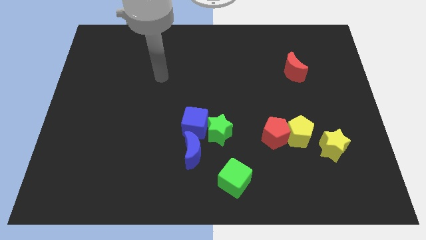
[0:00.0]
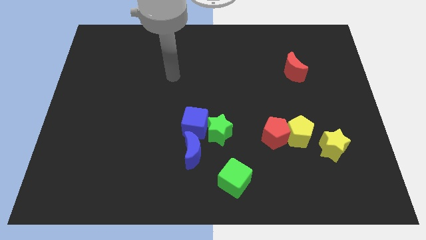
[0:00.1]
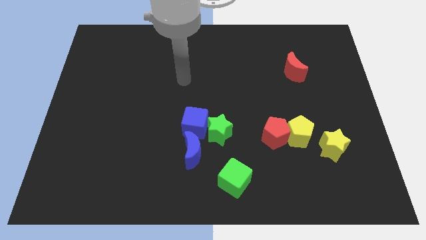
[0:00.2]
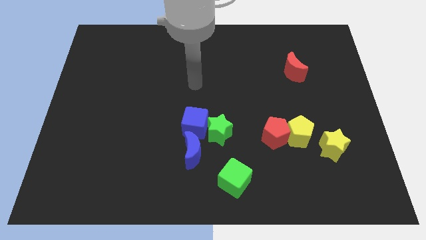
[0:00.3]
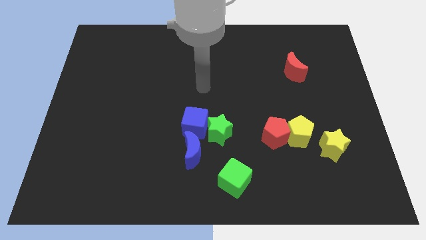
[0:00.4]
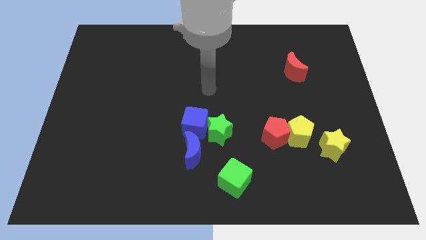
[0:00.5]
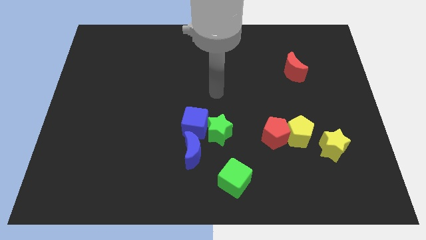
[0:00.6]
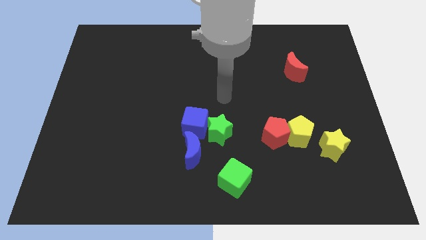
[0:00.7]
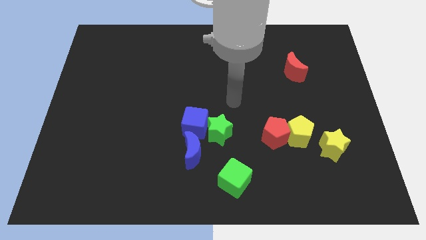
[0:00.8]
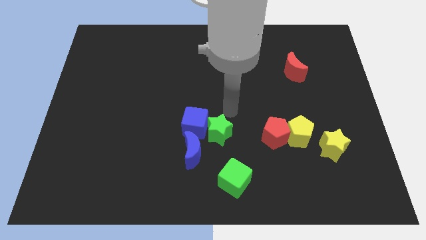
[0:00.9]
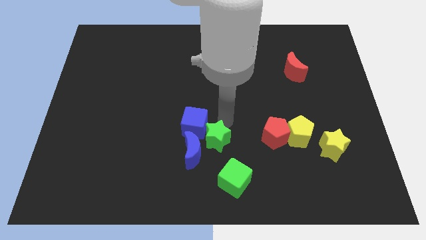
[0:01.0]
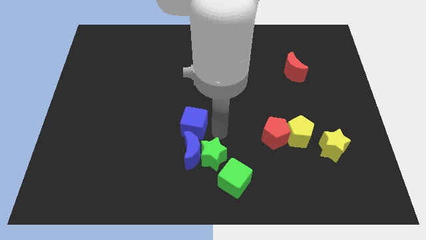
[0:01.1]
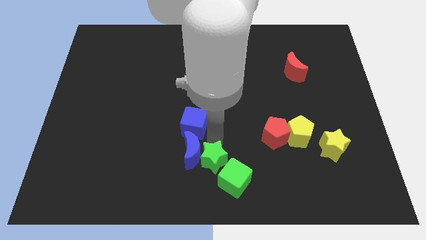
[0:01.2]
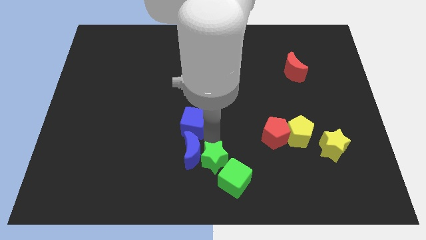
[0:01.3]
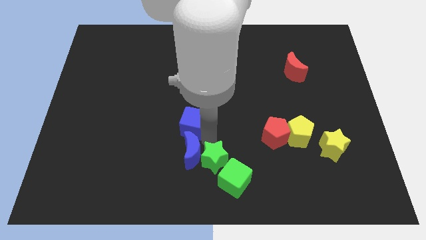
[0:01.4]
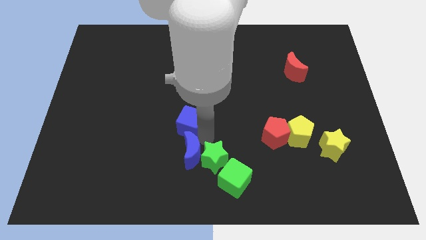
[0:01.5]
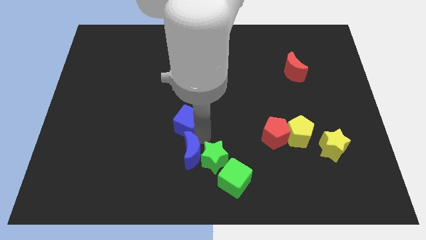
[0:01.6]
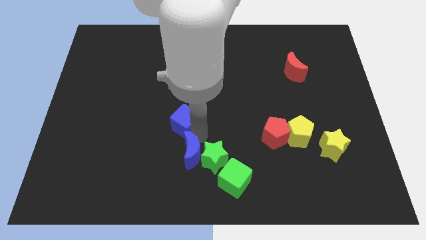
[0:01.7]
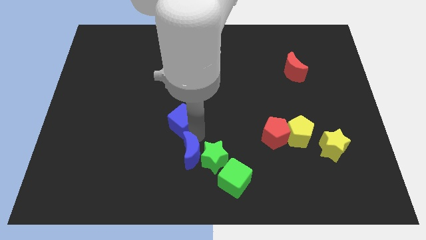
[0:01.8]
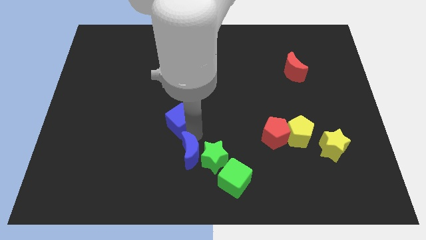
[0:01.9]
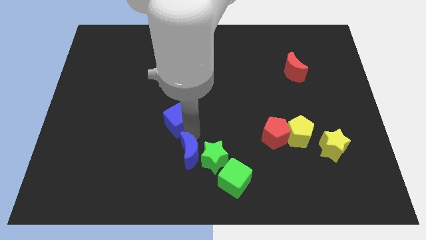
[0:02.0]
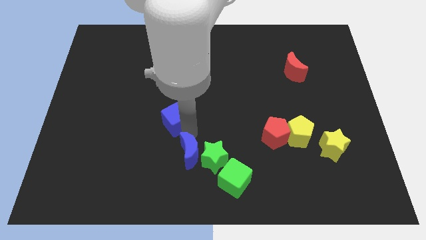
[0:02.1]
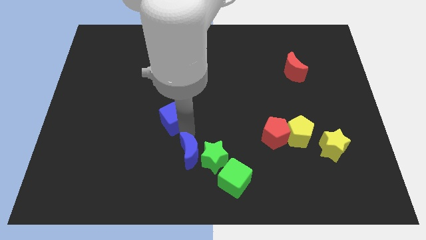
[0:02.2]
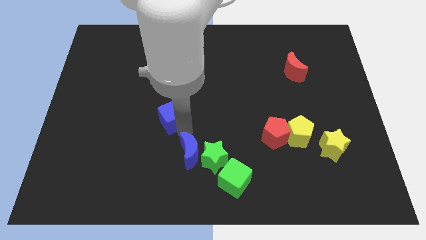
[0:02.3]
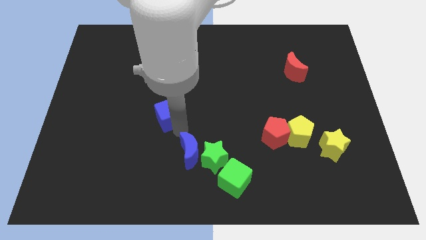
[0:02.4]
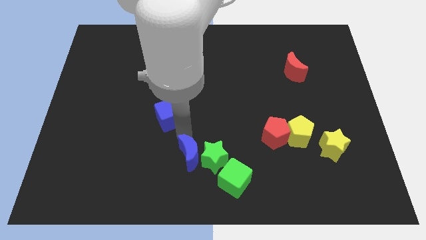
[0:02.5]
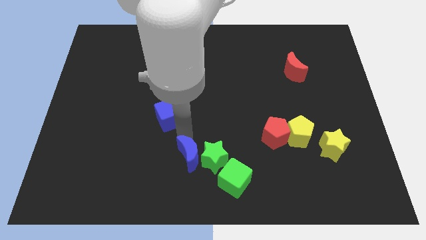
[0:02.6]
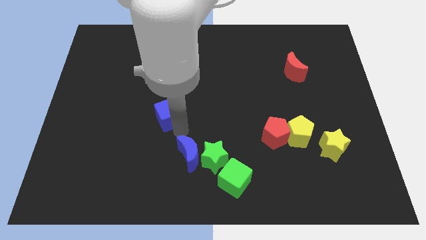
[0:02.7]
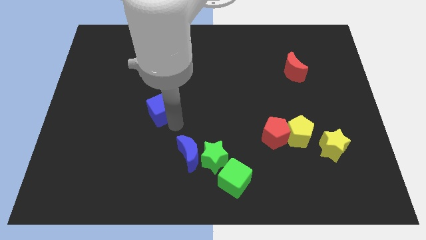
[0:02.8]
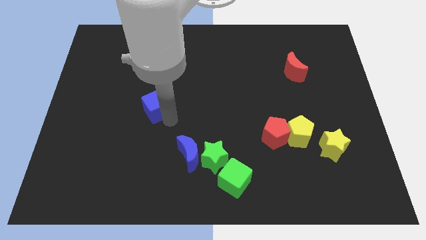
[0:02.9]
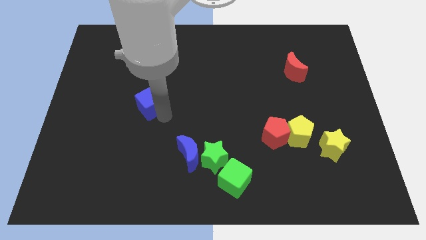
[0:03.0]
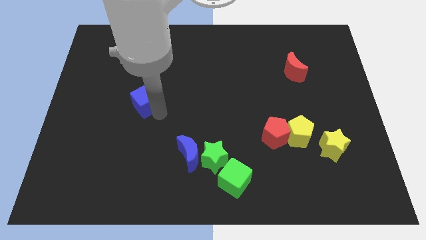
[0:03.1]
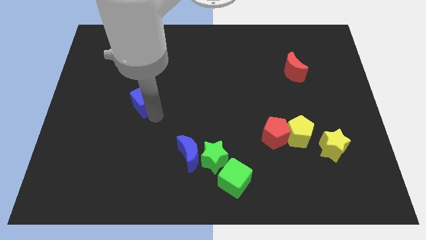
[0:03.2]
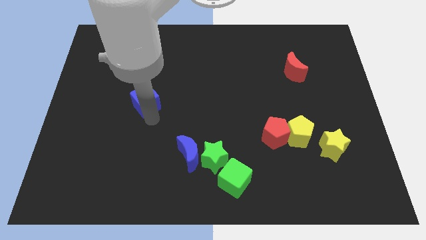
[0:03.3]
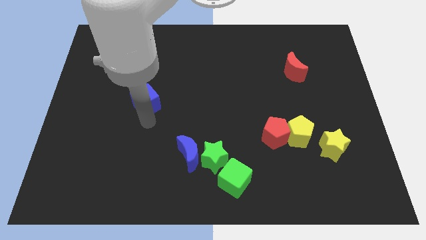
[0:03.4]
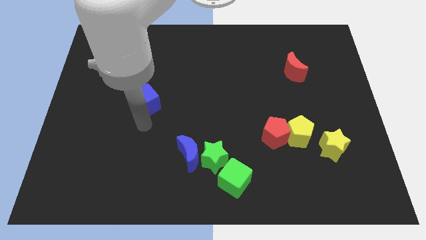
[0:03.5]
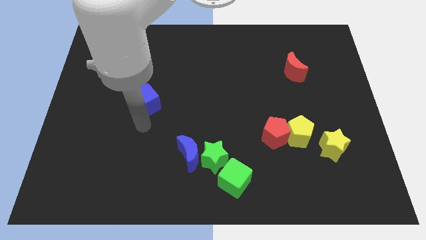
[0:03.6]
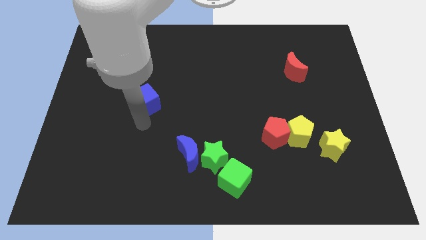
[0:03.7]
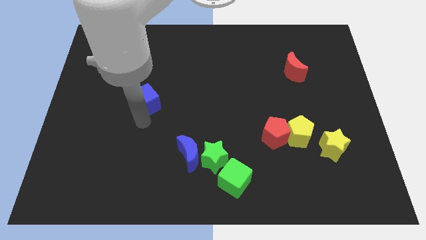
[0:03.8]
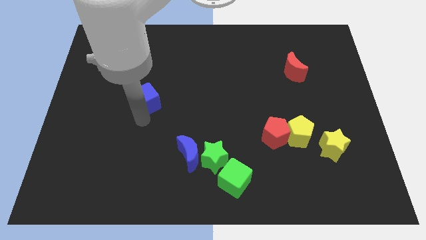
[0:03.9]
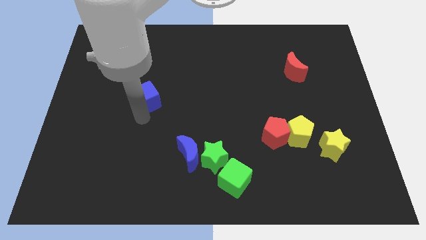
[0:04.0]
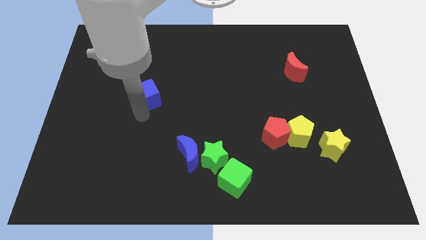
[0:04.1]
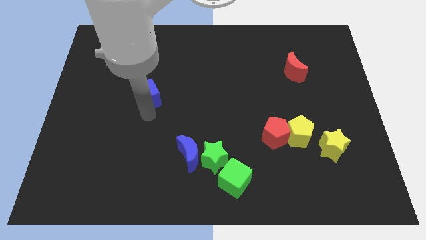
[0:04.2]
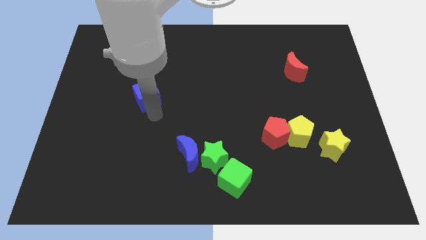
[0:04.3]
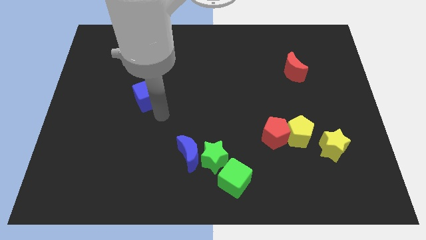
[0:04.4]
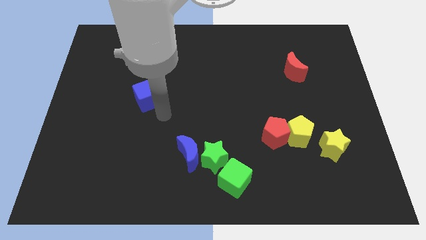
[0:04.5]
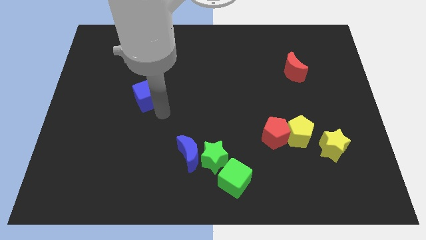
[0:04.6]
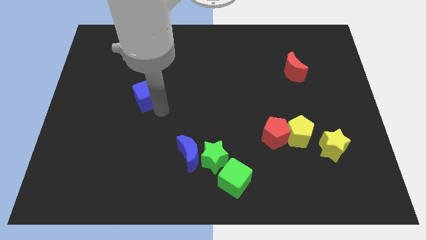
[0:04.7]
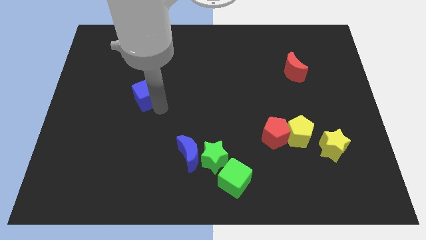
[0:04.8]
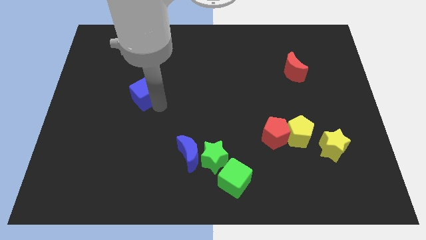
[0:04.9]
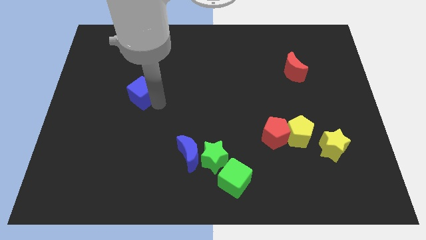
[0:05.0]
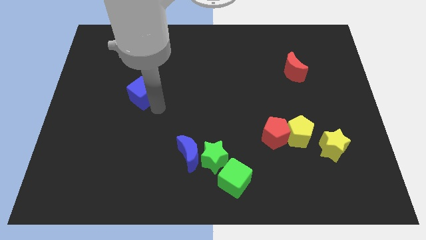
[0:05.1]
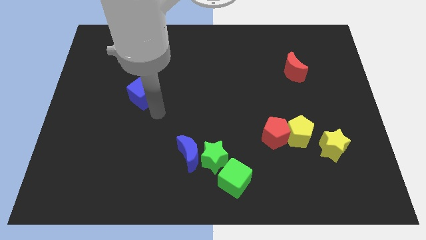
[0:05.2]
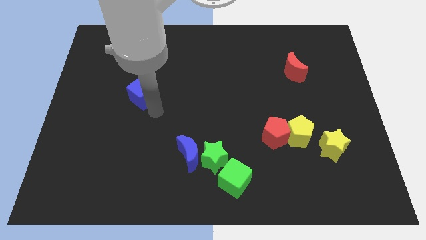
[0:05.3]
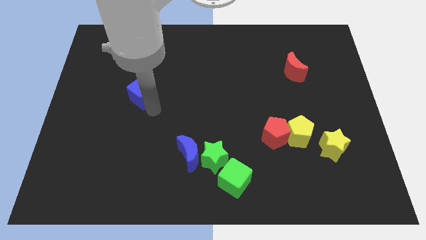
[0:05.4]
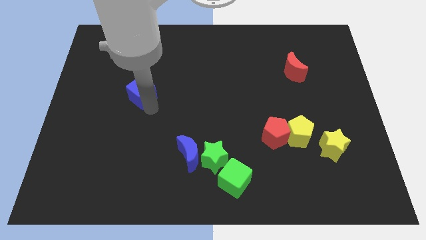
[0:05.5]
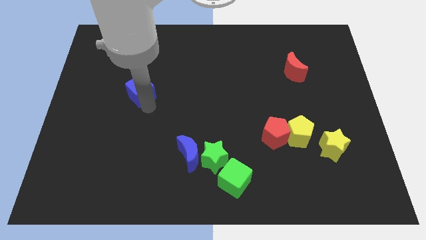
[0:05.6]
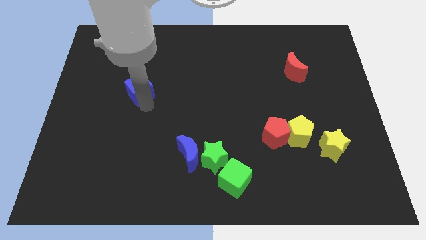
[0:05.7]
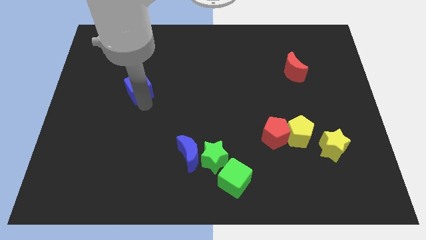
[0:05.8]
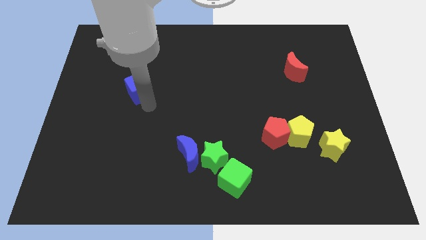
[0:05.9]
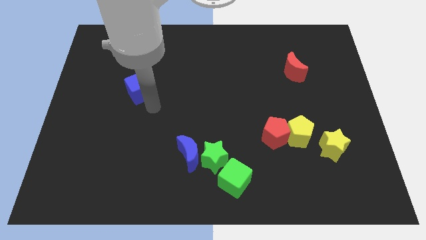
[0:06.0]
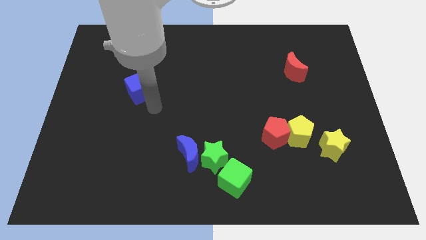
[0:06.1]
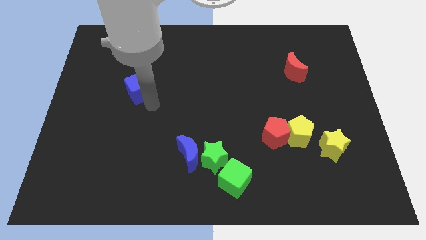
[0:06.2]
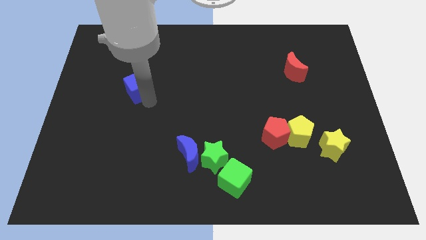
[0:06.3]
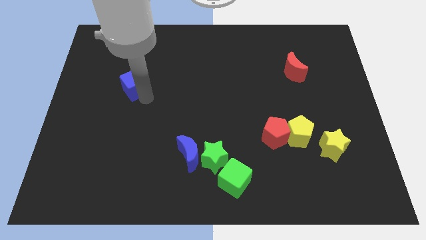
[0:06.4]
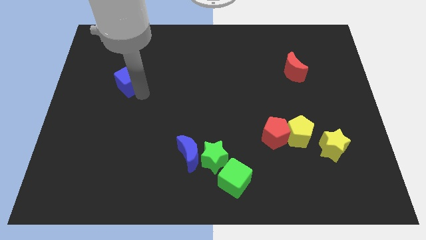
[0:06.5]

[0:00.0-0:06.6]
push the blue cube up and then to the left

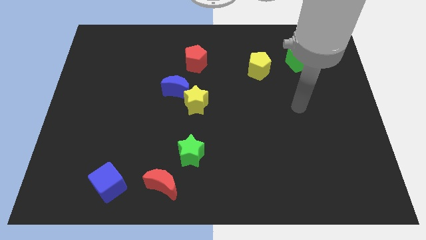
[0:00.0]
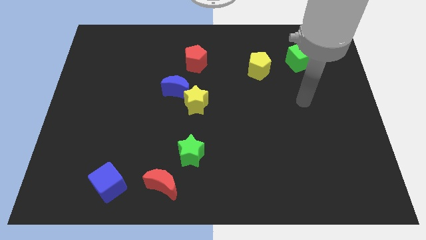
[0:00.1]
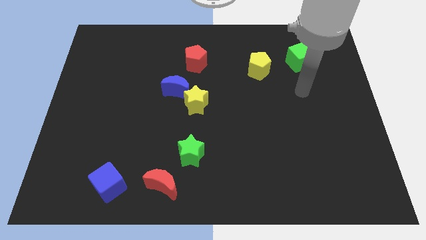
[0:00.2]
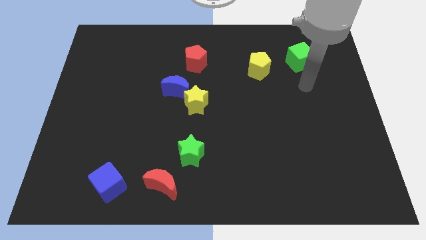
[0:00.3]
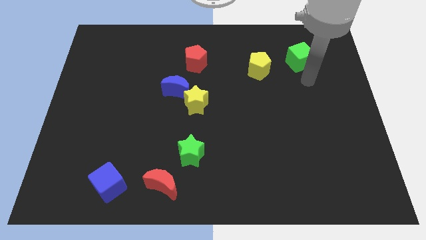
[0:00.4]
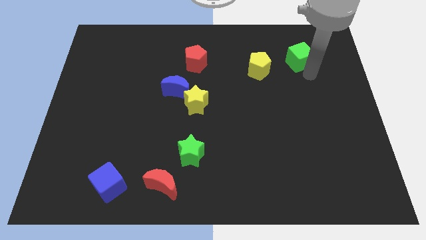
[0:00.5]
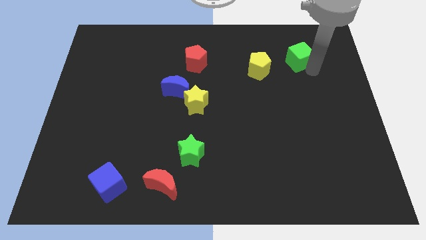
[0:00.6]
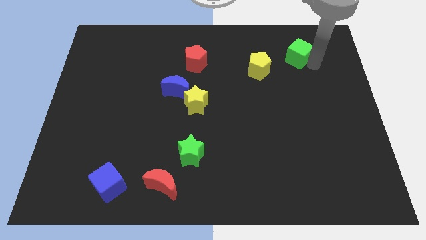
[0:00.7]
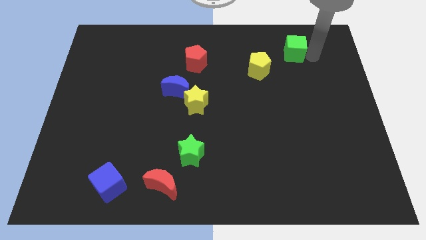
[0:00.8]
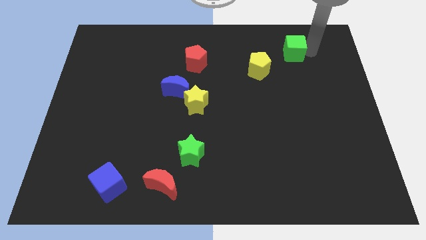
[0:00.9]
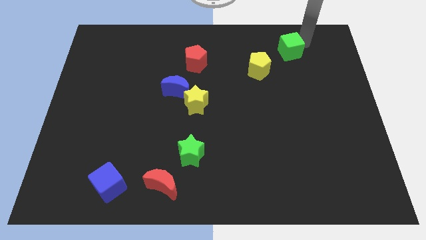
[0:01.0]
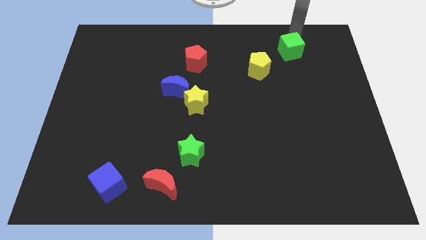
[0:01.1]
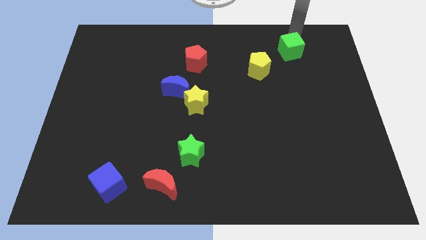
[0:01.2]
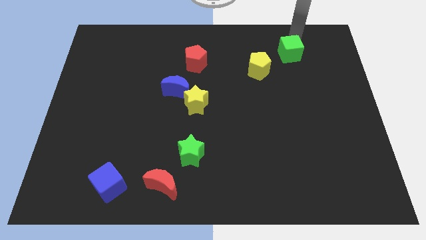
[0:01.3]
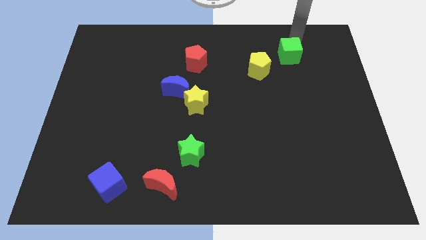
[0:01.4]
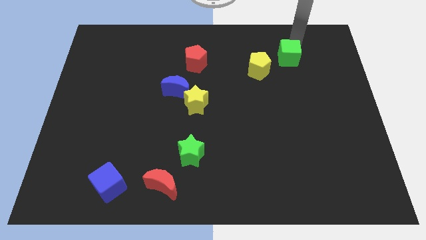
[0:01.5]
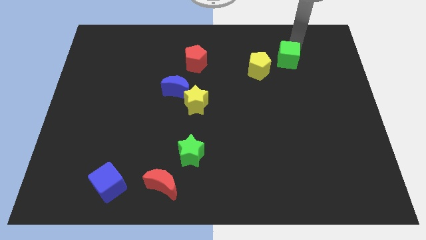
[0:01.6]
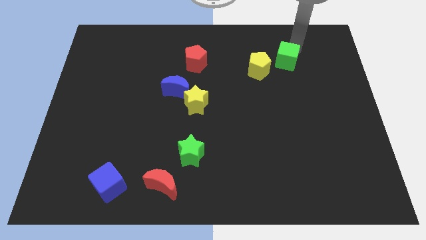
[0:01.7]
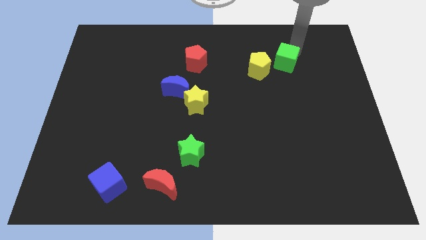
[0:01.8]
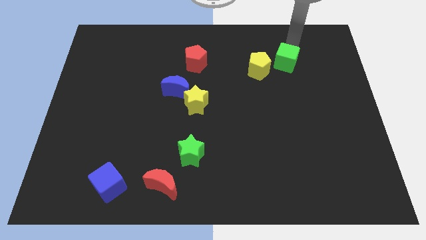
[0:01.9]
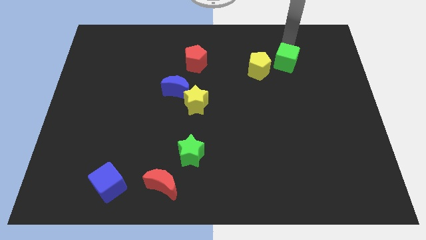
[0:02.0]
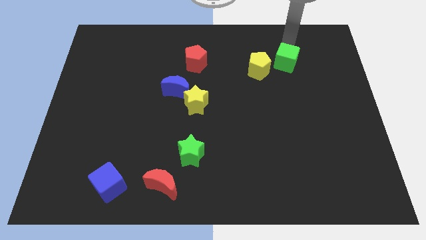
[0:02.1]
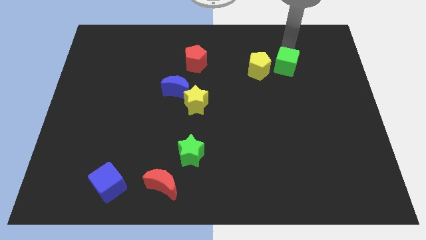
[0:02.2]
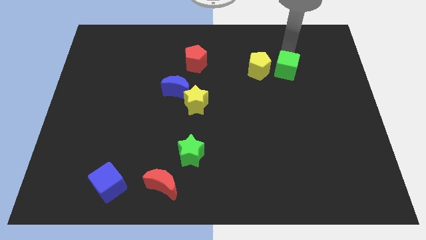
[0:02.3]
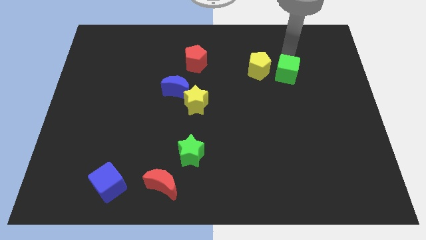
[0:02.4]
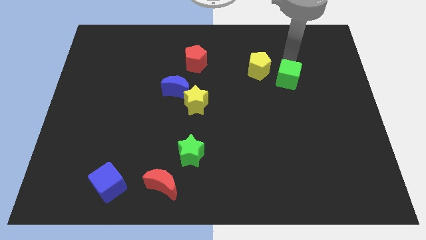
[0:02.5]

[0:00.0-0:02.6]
move the green cube a bit downwards and then to the left
